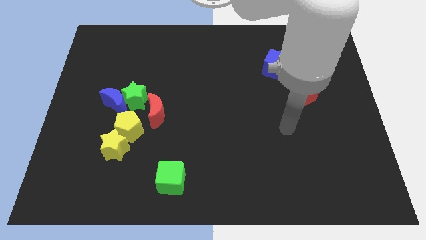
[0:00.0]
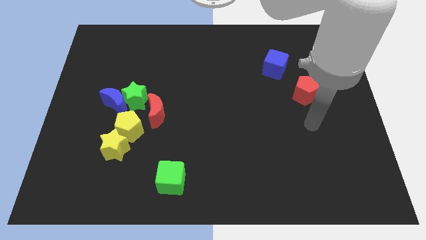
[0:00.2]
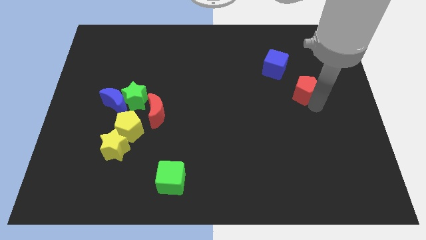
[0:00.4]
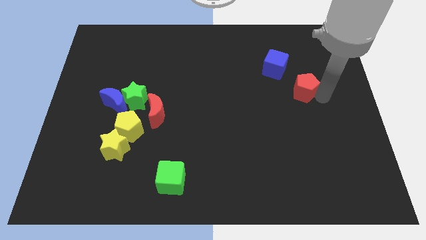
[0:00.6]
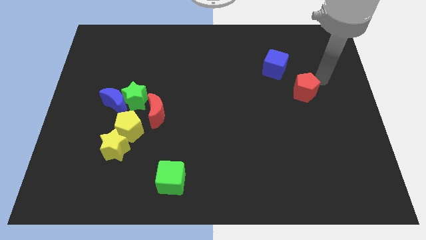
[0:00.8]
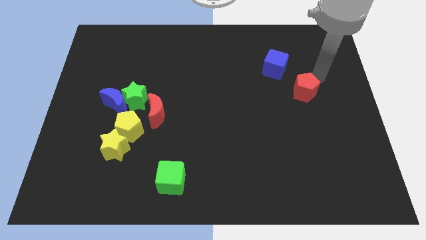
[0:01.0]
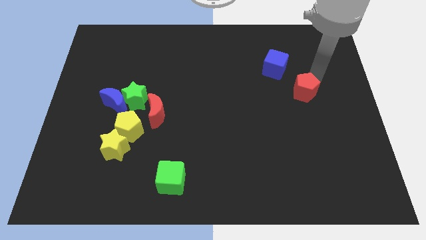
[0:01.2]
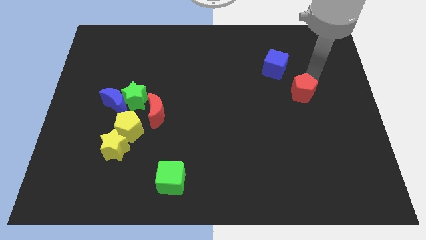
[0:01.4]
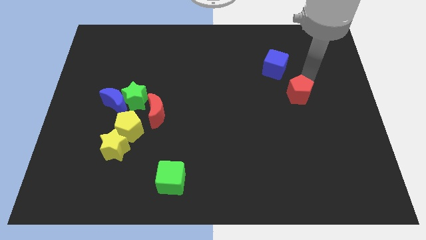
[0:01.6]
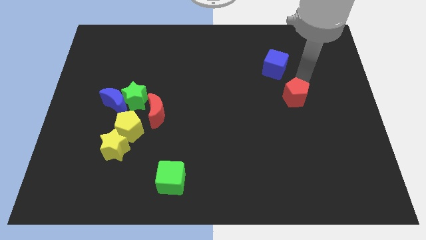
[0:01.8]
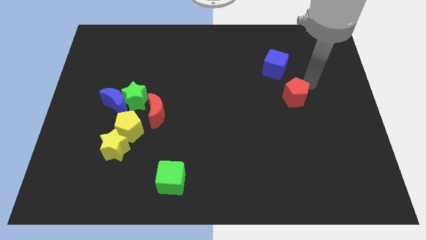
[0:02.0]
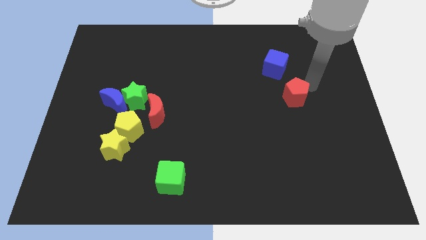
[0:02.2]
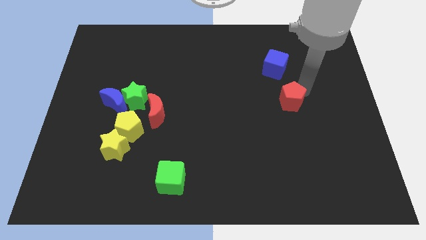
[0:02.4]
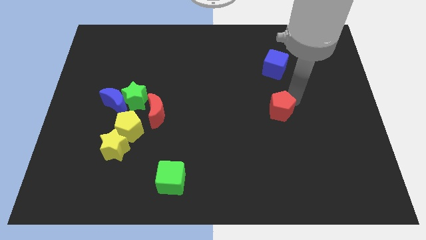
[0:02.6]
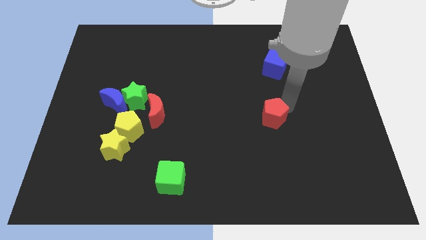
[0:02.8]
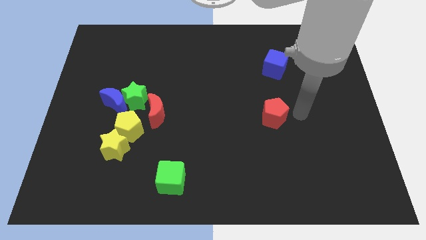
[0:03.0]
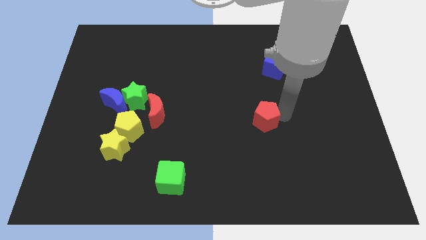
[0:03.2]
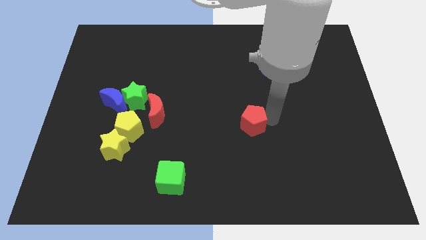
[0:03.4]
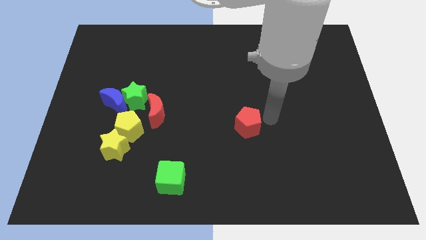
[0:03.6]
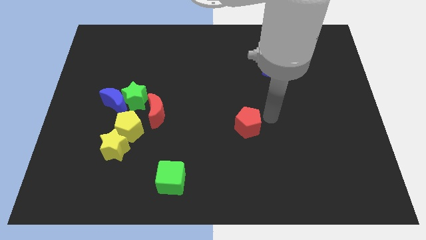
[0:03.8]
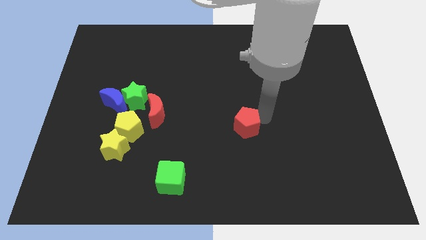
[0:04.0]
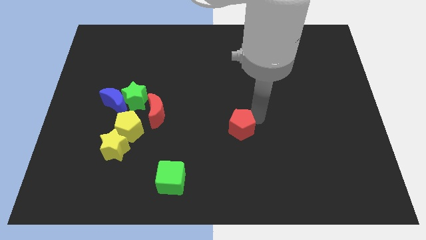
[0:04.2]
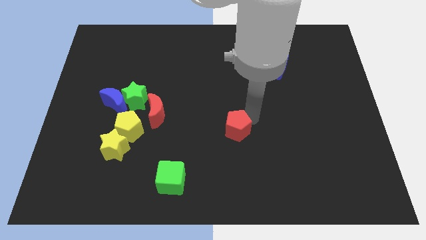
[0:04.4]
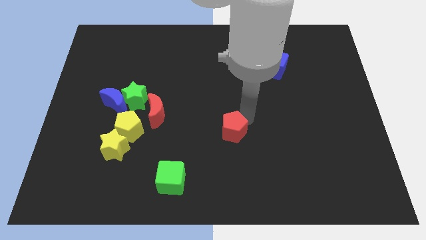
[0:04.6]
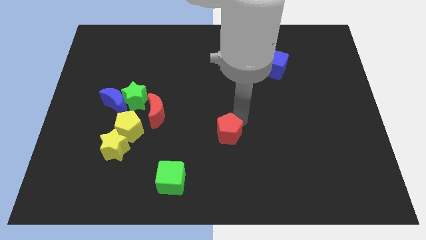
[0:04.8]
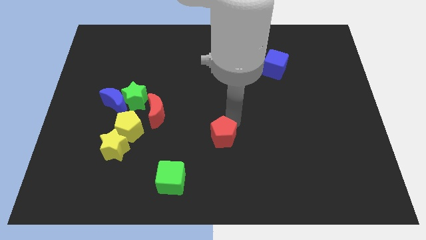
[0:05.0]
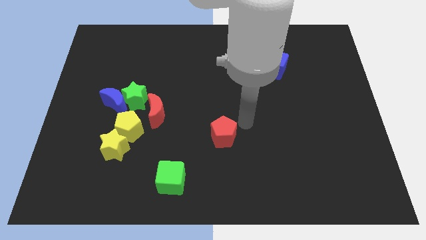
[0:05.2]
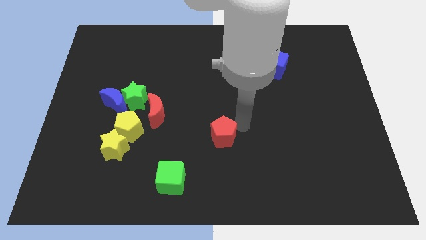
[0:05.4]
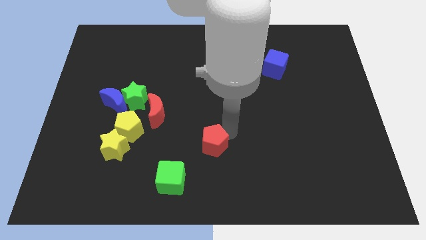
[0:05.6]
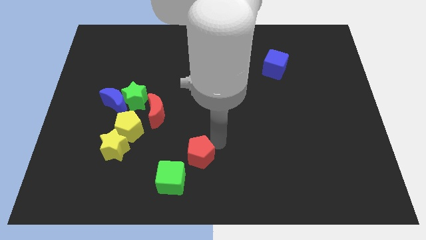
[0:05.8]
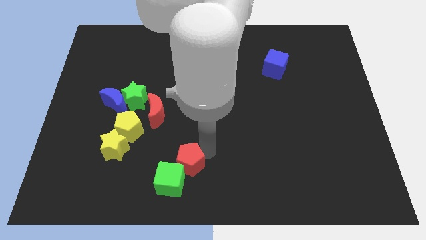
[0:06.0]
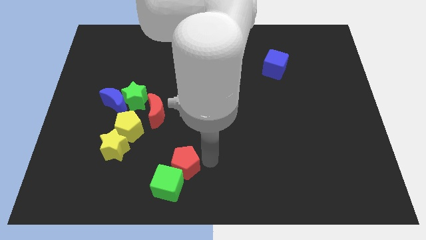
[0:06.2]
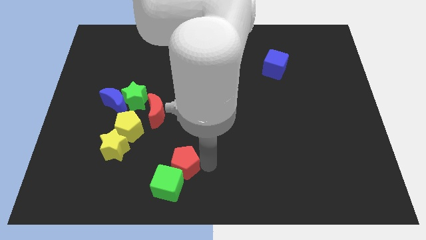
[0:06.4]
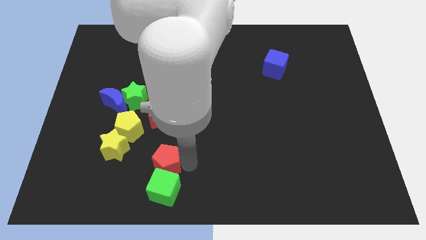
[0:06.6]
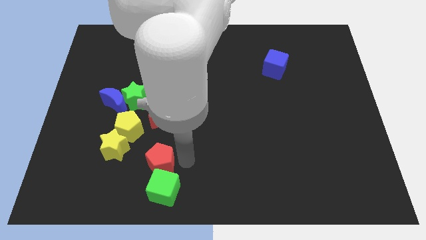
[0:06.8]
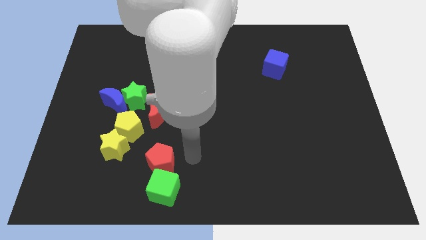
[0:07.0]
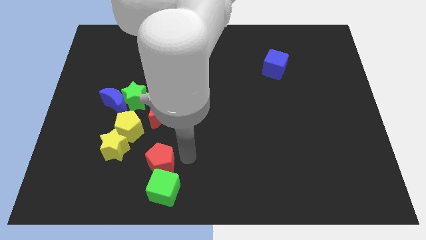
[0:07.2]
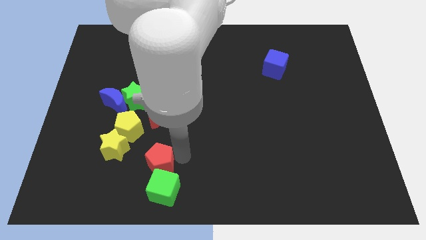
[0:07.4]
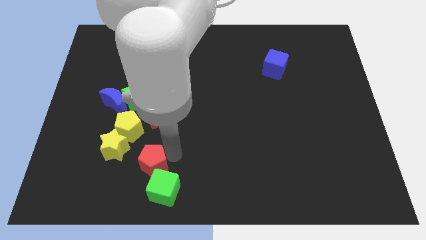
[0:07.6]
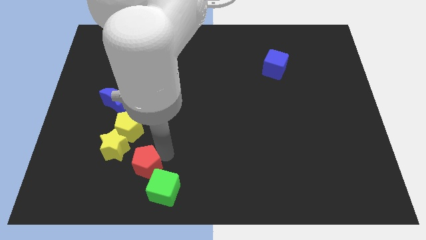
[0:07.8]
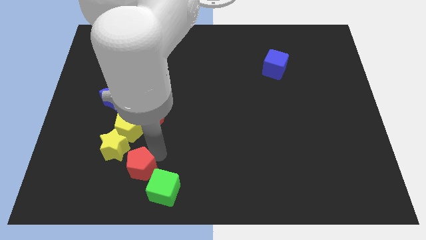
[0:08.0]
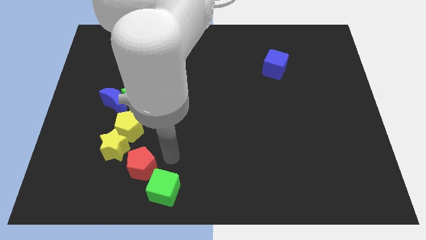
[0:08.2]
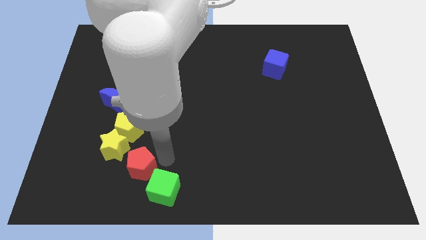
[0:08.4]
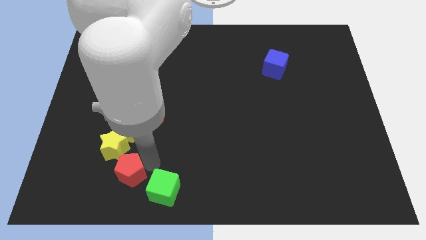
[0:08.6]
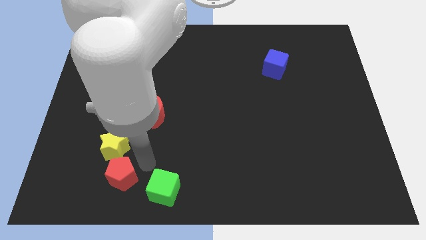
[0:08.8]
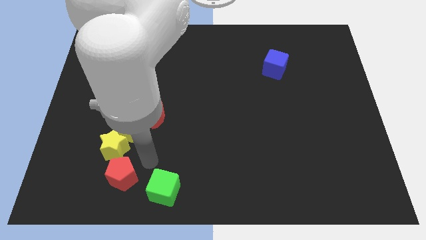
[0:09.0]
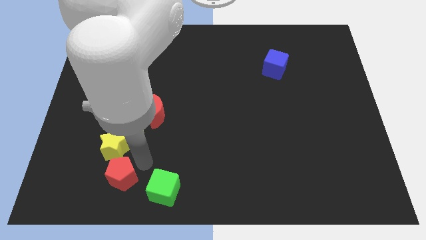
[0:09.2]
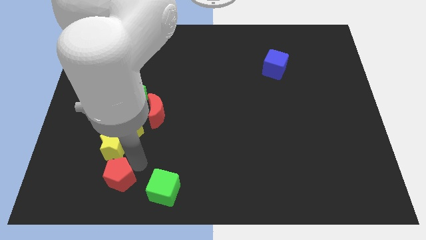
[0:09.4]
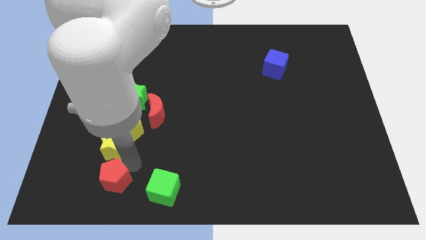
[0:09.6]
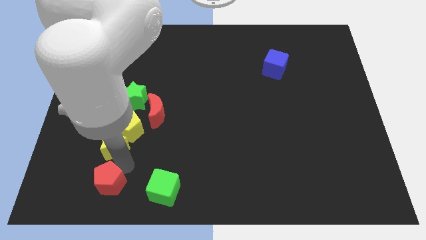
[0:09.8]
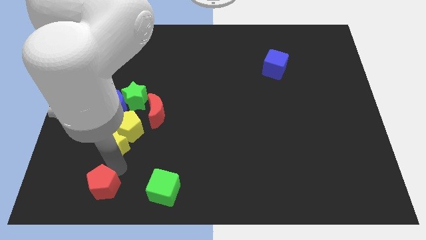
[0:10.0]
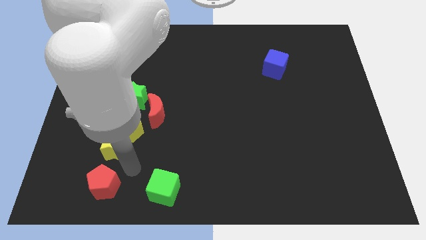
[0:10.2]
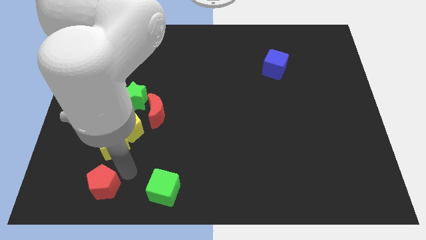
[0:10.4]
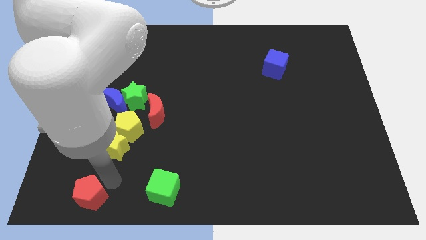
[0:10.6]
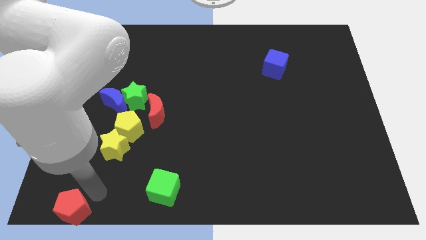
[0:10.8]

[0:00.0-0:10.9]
put the red pentagon to the lower left corner

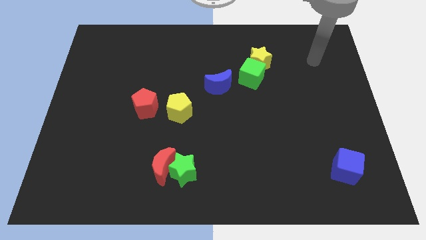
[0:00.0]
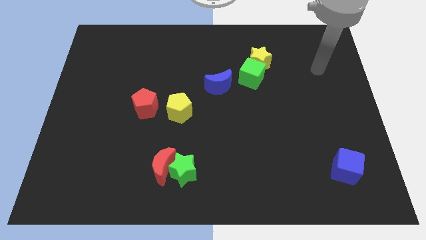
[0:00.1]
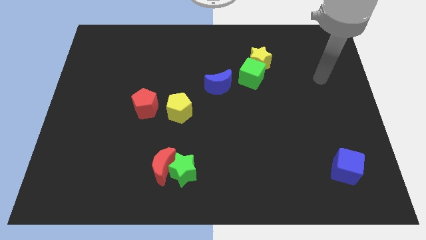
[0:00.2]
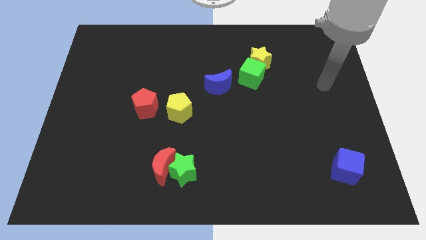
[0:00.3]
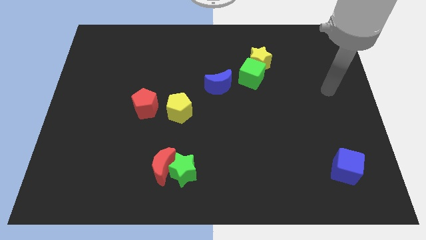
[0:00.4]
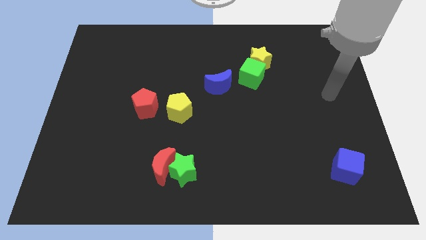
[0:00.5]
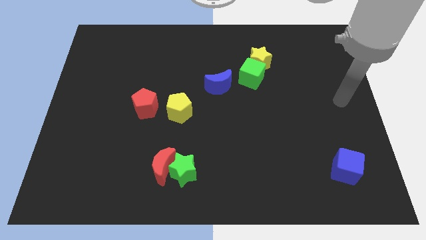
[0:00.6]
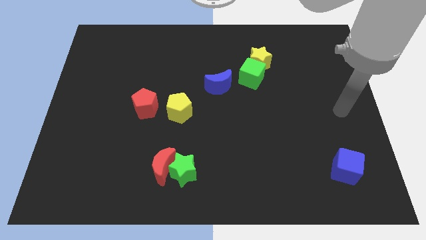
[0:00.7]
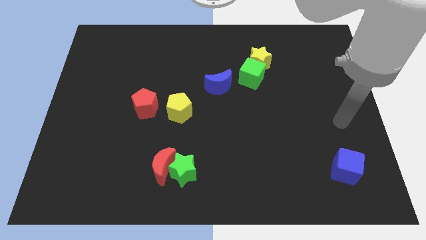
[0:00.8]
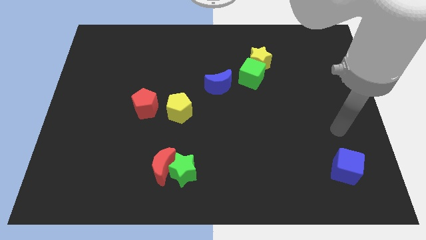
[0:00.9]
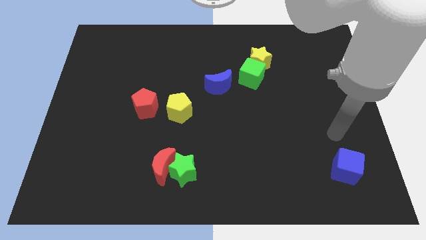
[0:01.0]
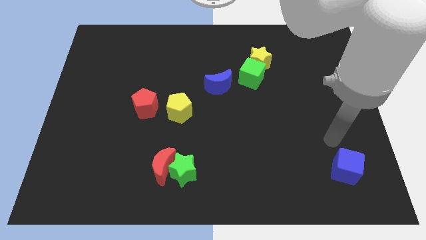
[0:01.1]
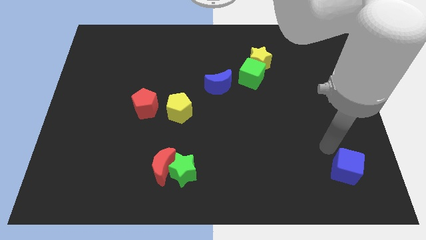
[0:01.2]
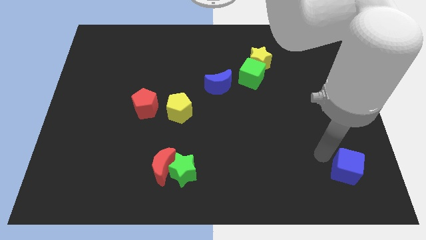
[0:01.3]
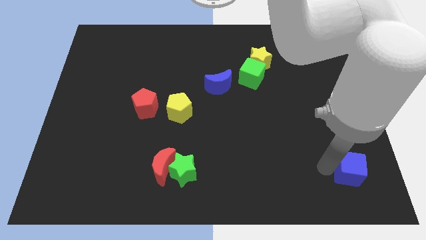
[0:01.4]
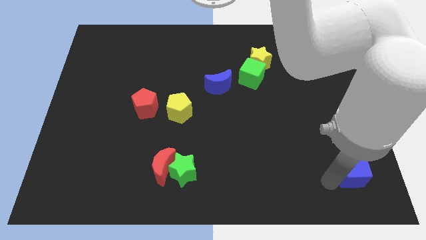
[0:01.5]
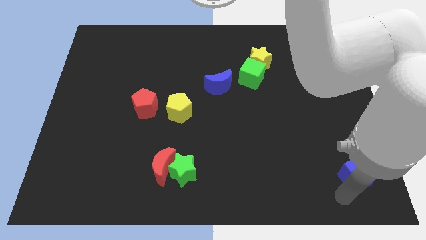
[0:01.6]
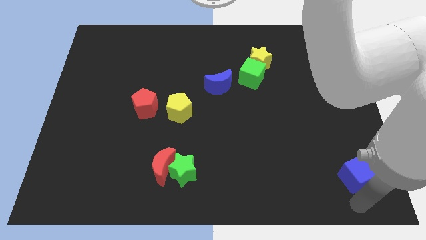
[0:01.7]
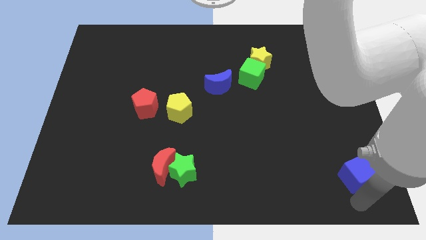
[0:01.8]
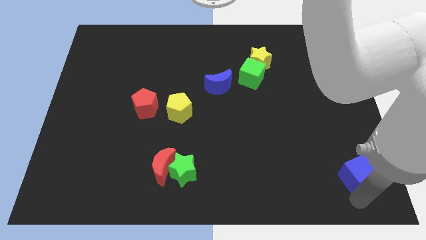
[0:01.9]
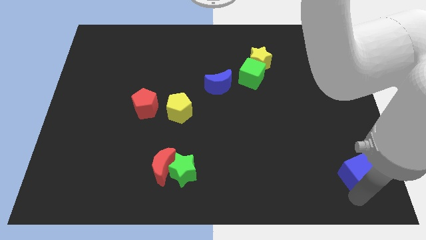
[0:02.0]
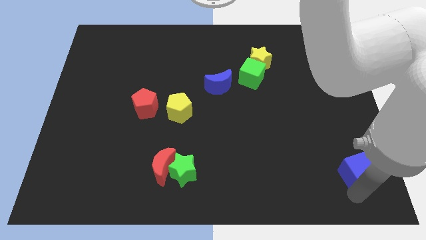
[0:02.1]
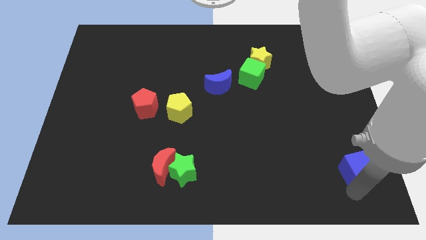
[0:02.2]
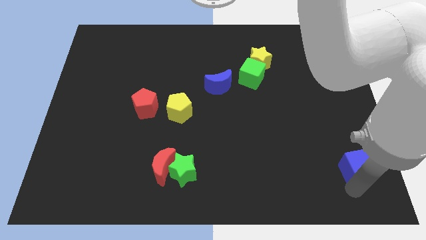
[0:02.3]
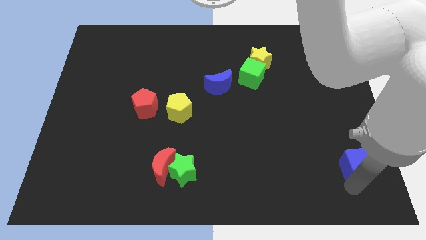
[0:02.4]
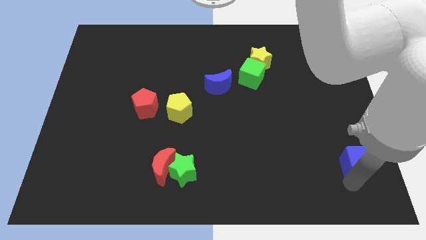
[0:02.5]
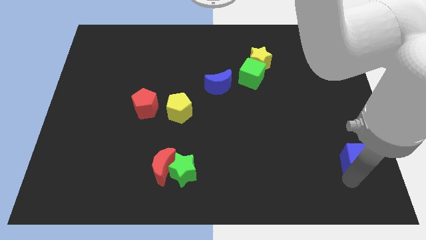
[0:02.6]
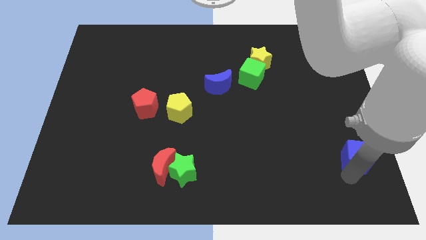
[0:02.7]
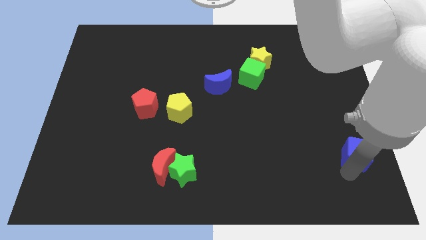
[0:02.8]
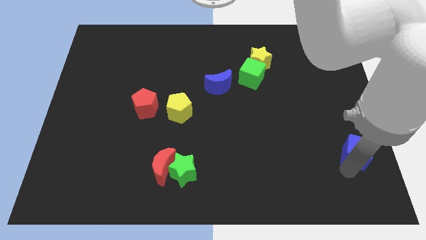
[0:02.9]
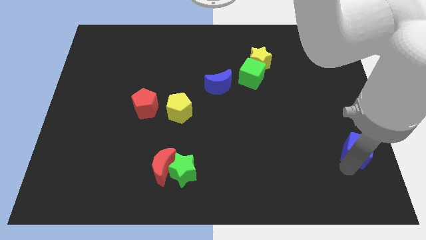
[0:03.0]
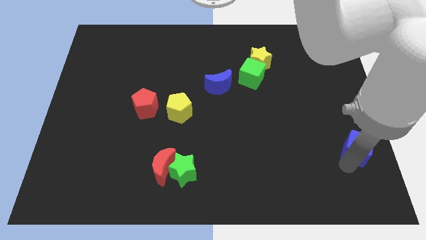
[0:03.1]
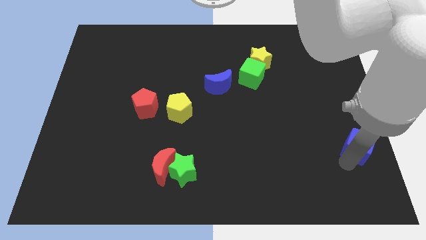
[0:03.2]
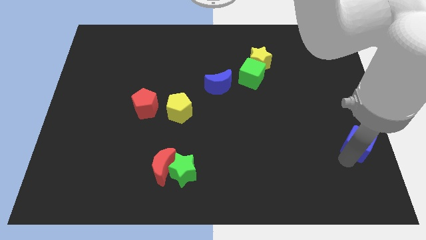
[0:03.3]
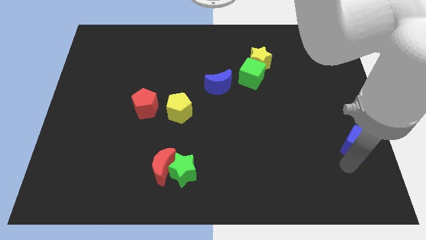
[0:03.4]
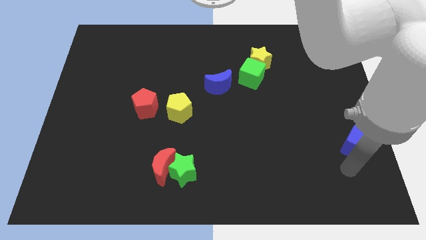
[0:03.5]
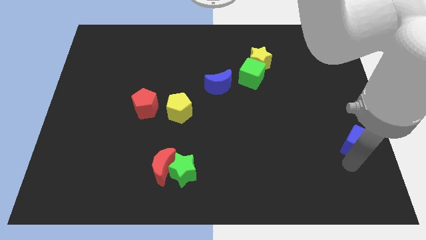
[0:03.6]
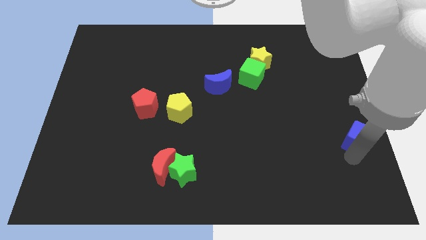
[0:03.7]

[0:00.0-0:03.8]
put the blue cube to the right side
